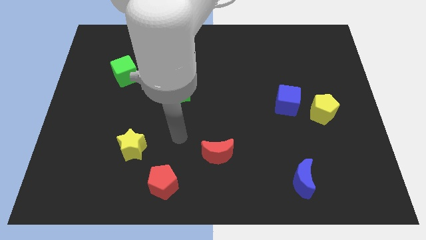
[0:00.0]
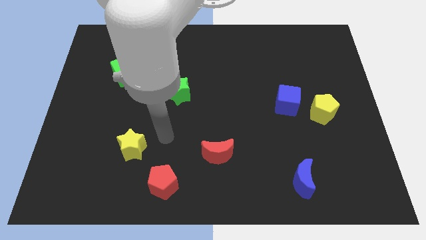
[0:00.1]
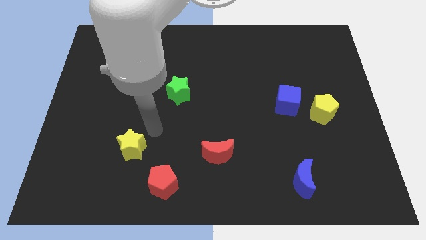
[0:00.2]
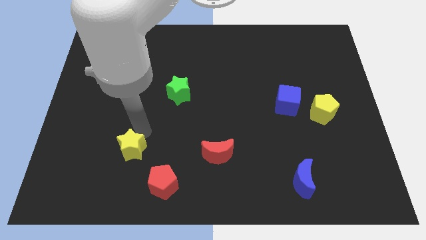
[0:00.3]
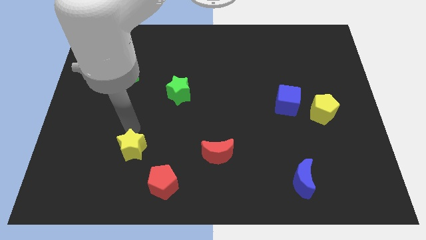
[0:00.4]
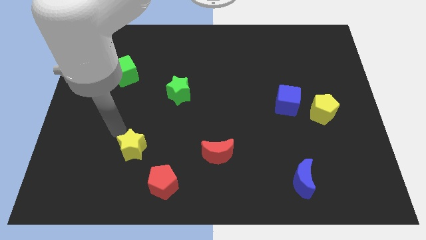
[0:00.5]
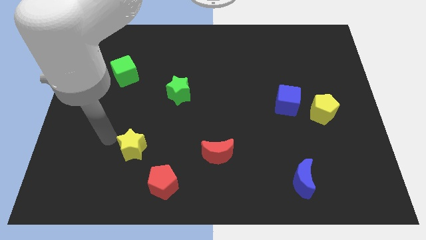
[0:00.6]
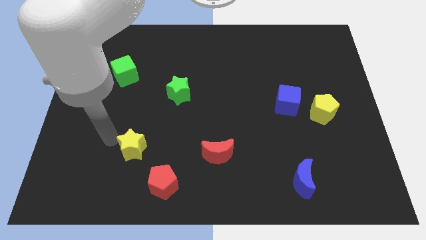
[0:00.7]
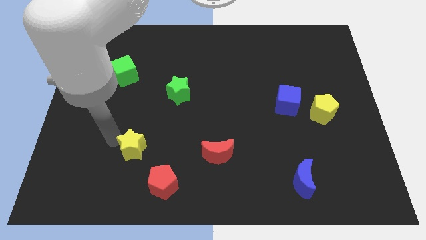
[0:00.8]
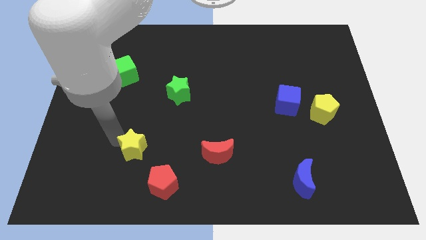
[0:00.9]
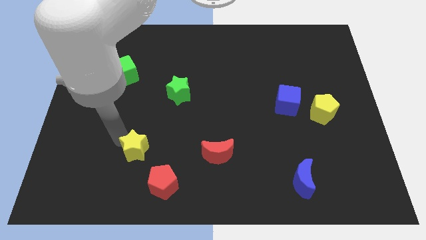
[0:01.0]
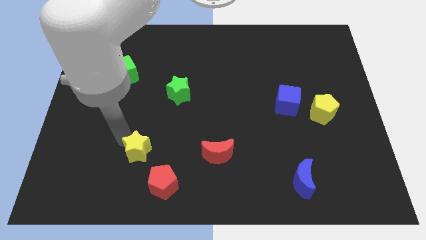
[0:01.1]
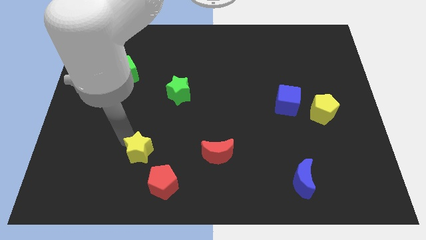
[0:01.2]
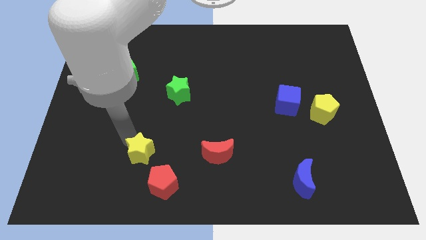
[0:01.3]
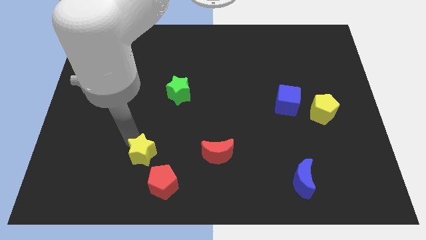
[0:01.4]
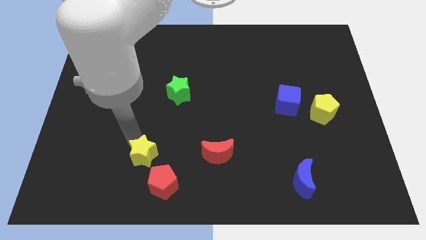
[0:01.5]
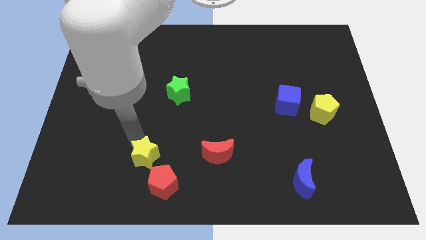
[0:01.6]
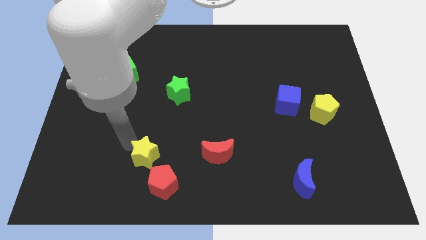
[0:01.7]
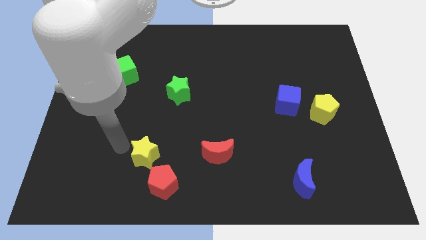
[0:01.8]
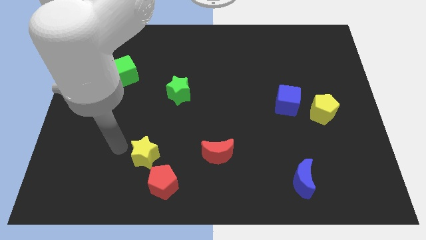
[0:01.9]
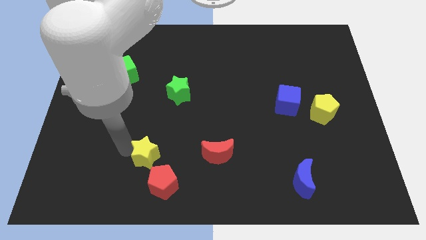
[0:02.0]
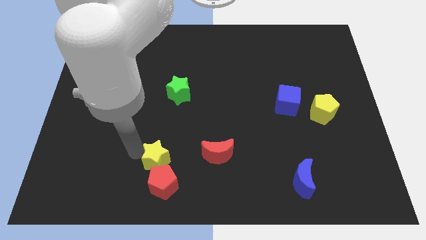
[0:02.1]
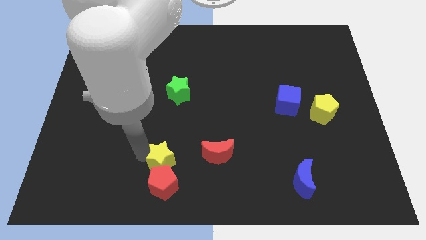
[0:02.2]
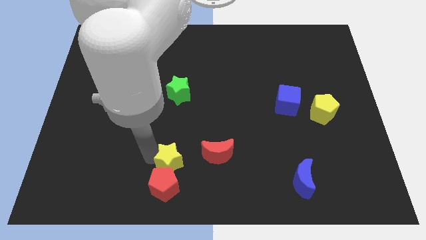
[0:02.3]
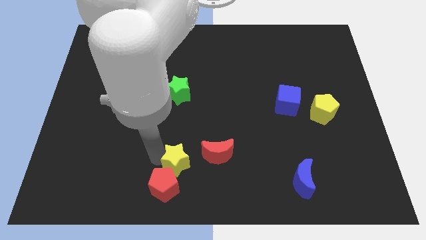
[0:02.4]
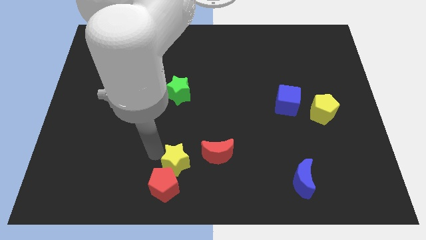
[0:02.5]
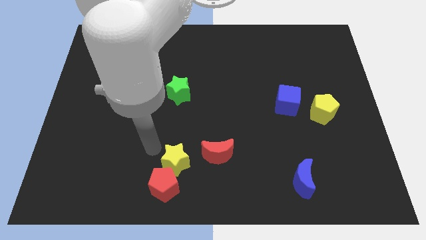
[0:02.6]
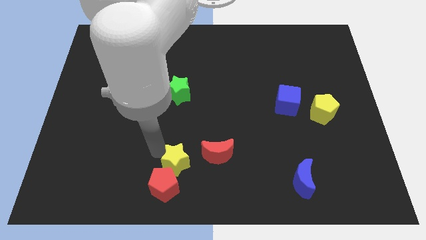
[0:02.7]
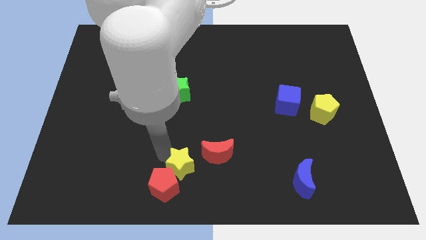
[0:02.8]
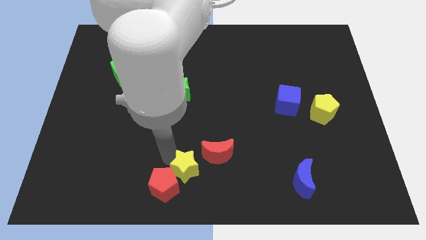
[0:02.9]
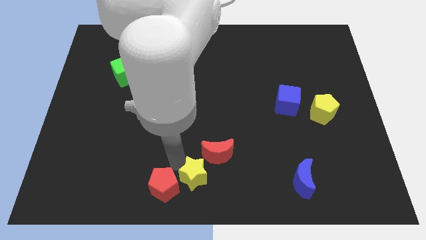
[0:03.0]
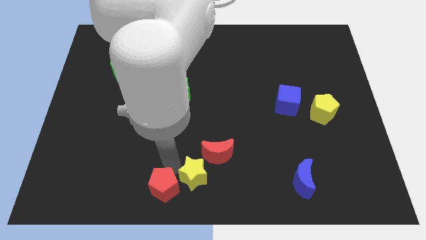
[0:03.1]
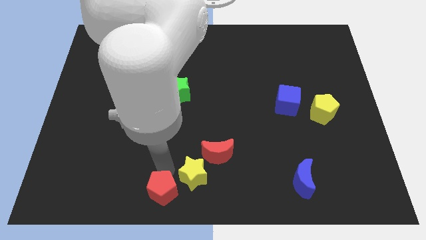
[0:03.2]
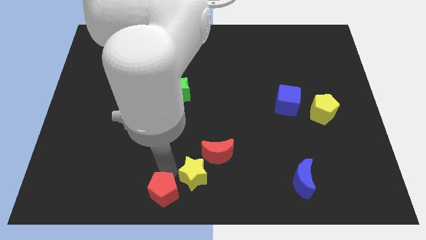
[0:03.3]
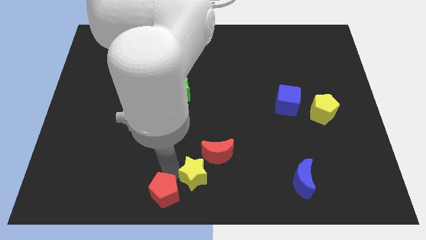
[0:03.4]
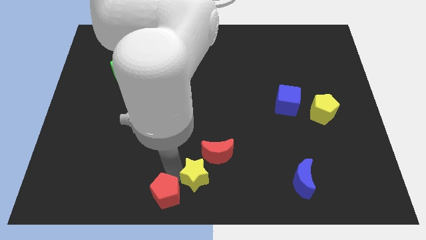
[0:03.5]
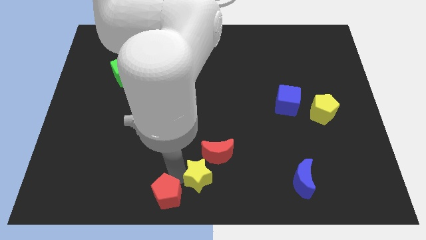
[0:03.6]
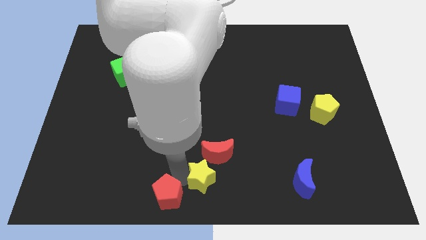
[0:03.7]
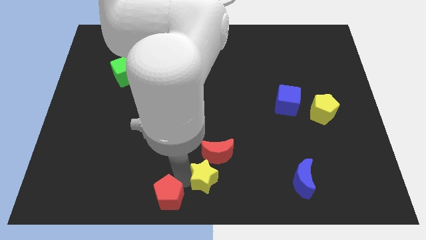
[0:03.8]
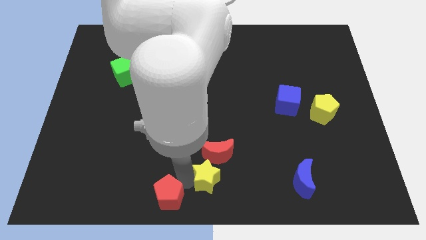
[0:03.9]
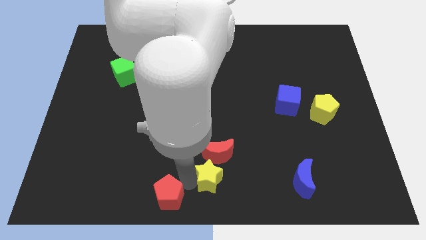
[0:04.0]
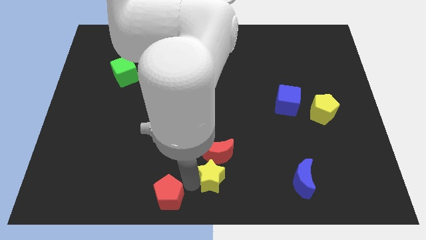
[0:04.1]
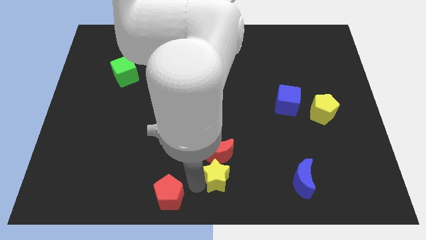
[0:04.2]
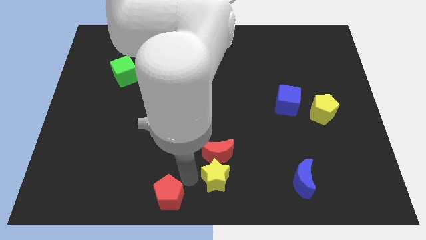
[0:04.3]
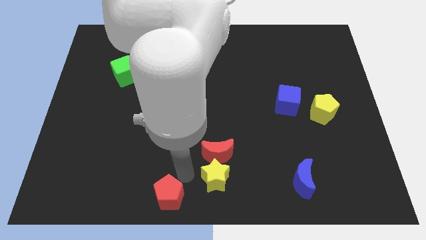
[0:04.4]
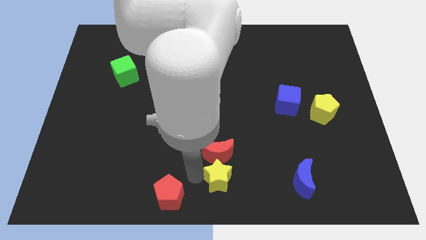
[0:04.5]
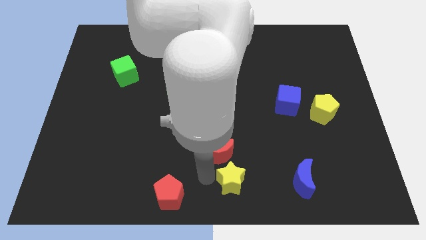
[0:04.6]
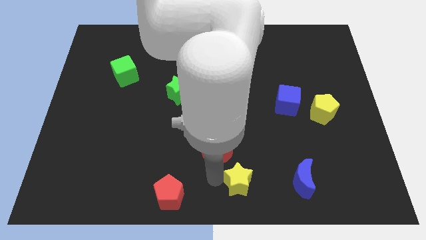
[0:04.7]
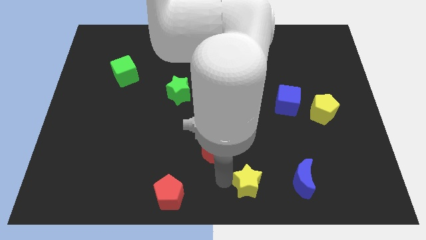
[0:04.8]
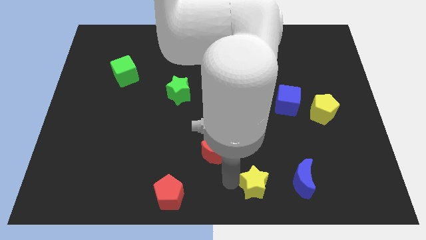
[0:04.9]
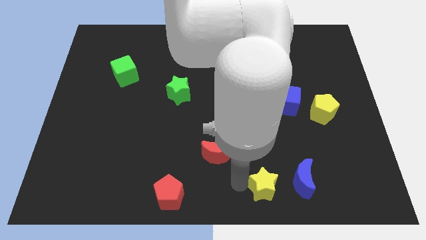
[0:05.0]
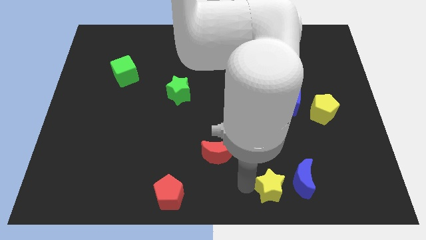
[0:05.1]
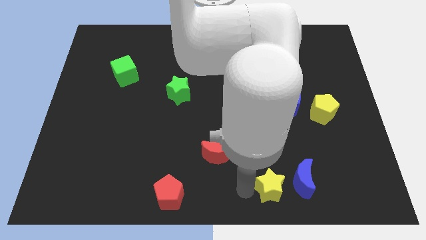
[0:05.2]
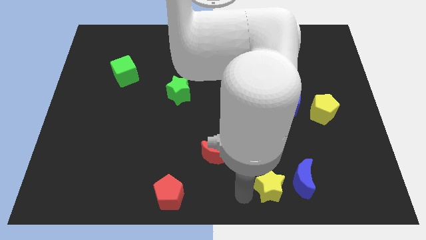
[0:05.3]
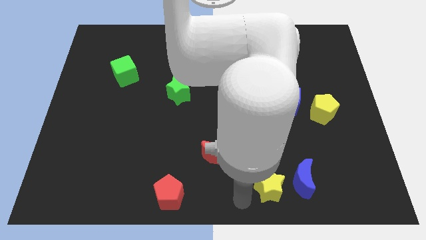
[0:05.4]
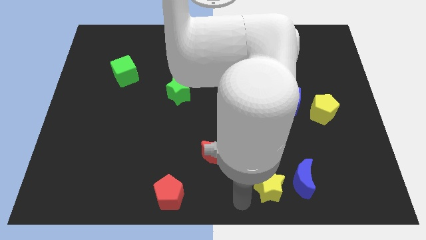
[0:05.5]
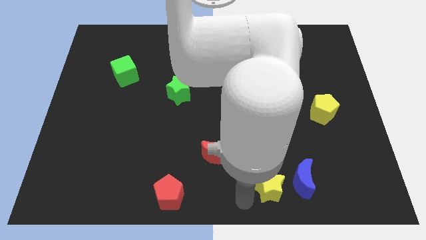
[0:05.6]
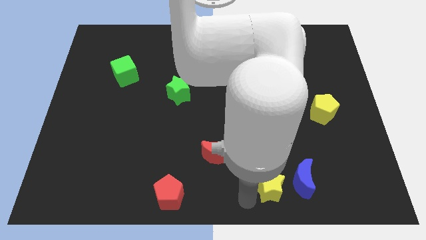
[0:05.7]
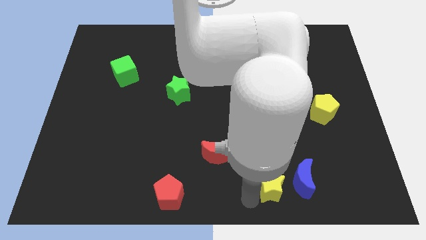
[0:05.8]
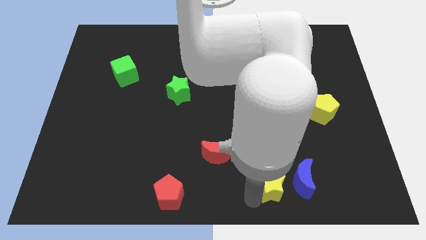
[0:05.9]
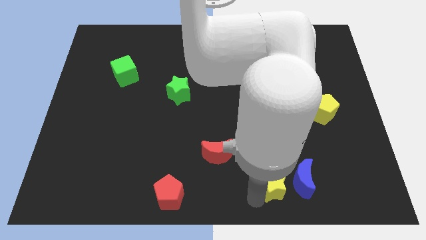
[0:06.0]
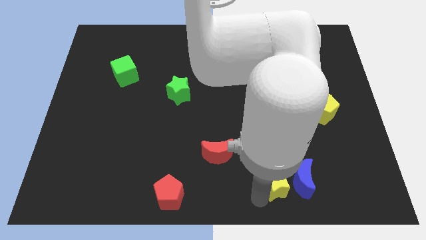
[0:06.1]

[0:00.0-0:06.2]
slide the yellow star close to the blue moon

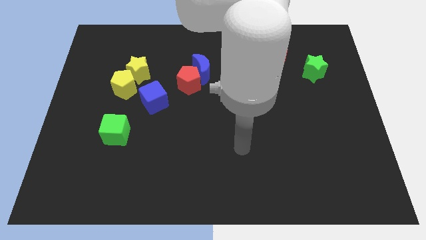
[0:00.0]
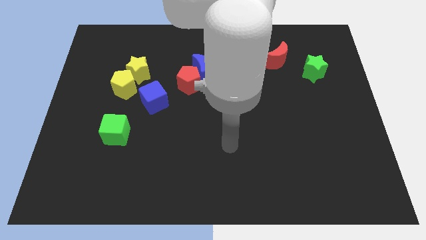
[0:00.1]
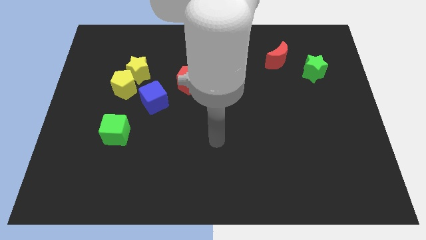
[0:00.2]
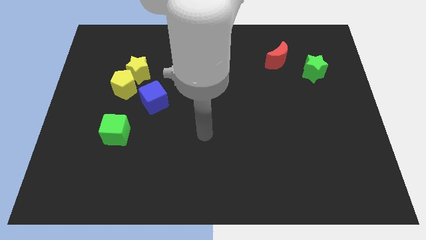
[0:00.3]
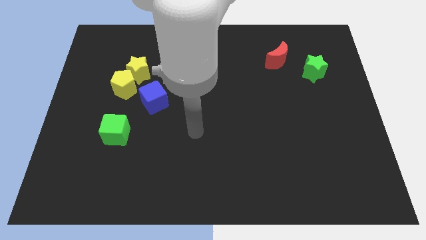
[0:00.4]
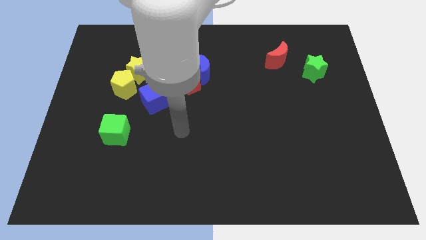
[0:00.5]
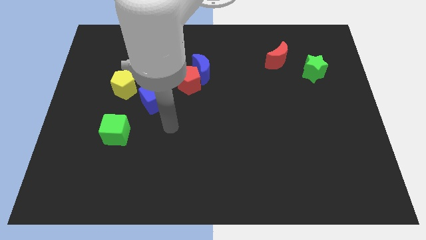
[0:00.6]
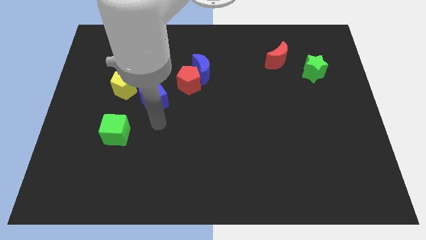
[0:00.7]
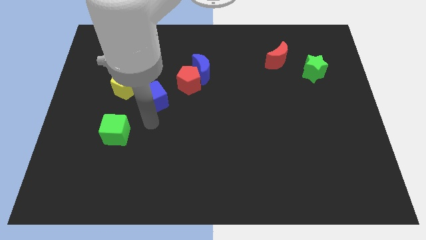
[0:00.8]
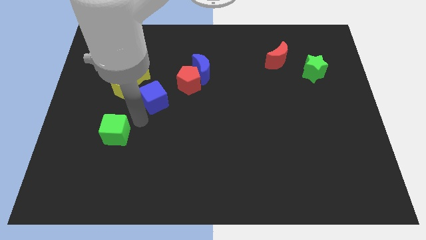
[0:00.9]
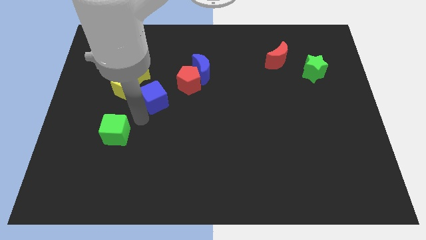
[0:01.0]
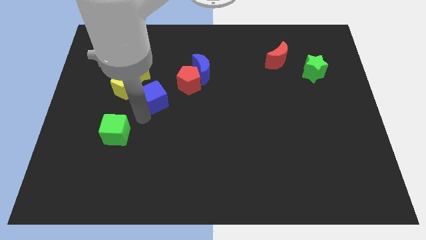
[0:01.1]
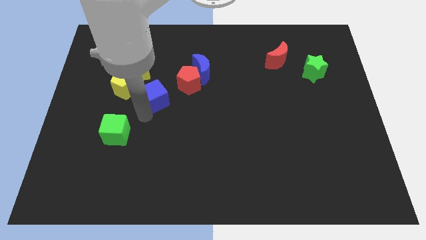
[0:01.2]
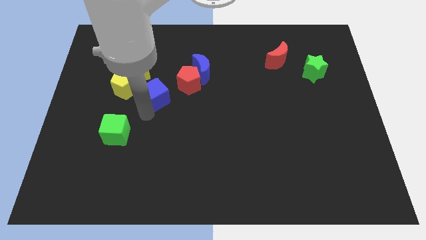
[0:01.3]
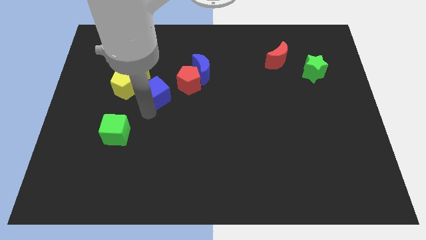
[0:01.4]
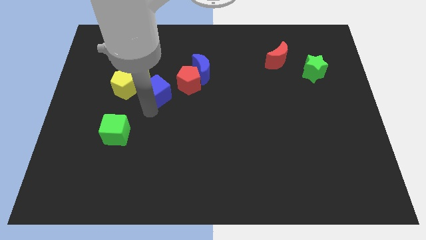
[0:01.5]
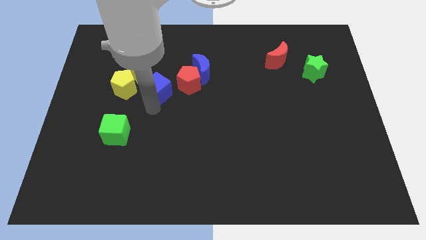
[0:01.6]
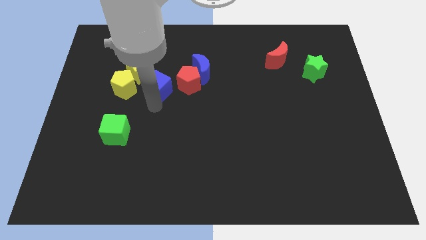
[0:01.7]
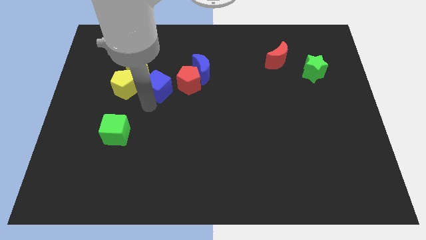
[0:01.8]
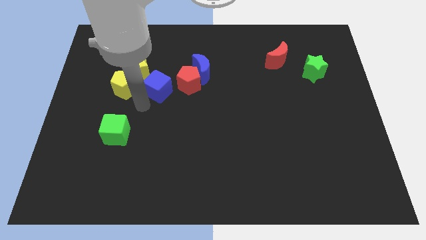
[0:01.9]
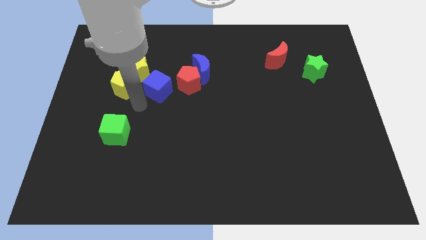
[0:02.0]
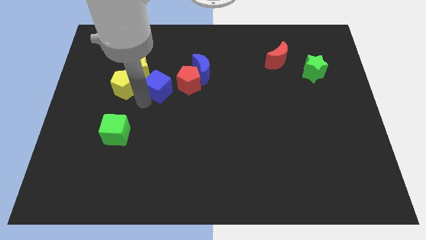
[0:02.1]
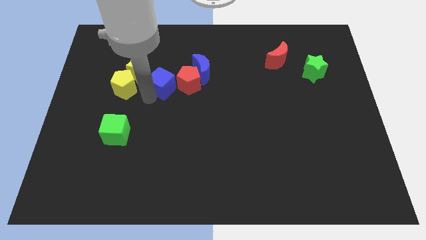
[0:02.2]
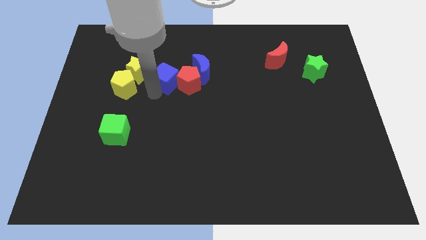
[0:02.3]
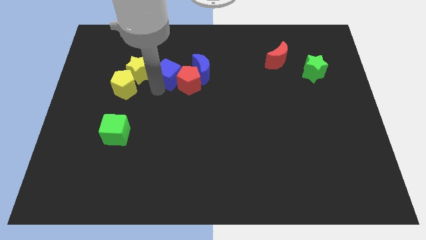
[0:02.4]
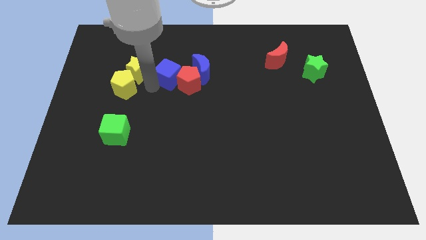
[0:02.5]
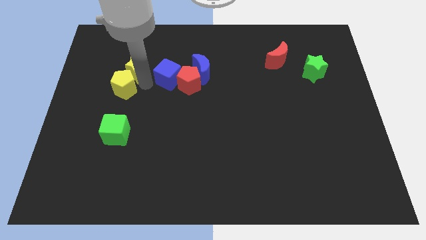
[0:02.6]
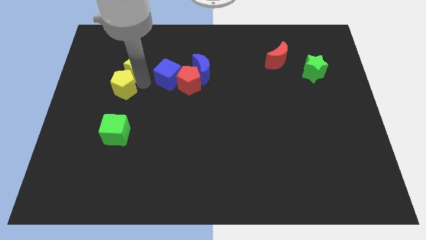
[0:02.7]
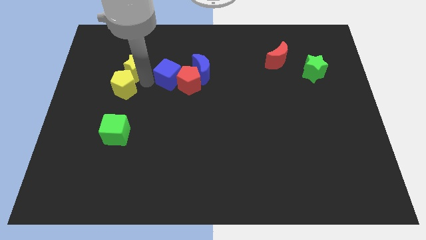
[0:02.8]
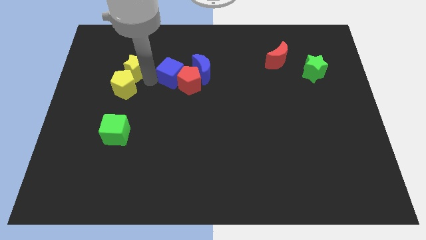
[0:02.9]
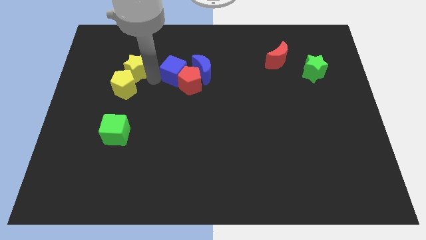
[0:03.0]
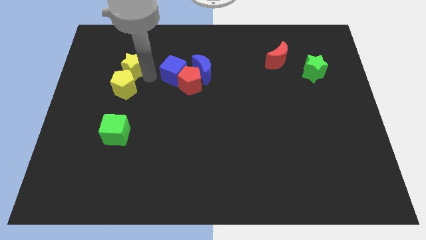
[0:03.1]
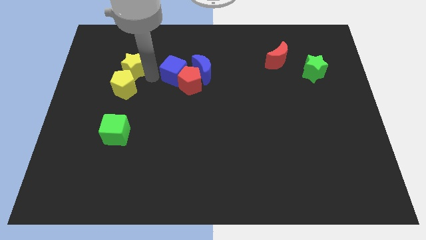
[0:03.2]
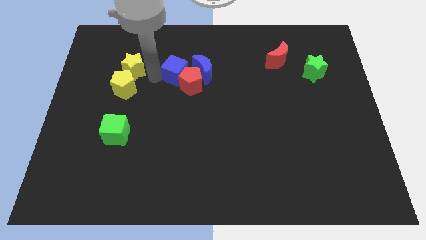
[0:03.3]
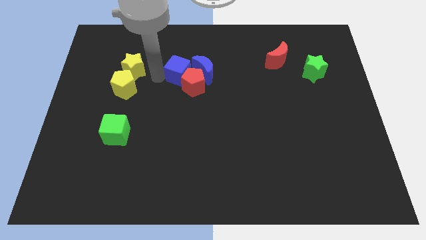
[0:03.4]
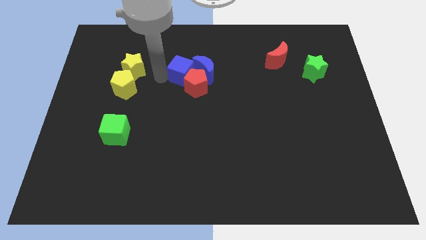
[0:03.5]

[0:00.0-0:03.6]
move the blue cube close to the blue moon
